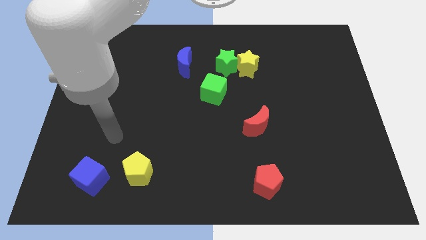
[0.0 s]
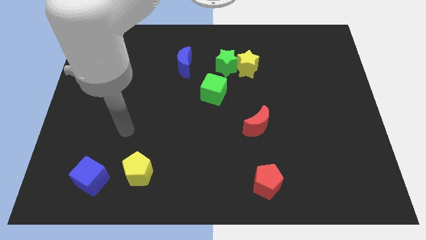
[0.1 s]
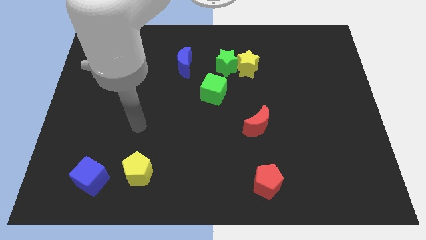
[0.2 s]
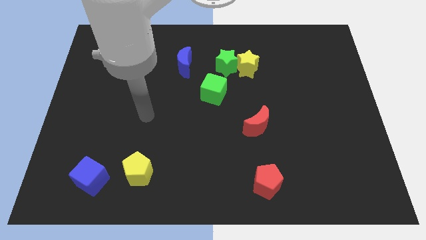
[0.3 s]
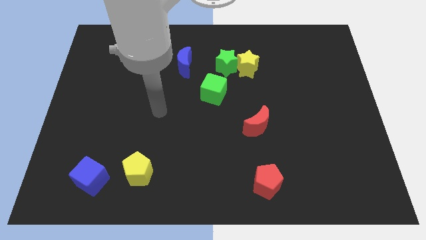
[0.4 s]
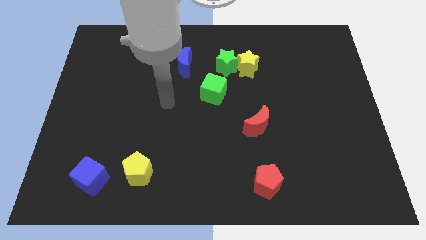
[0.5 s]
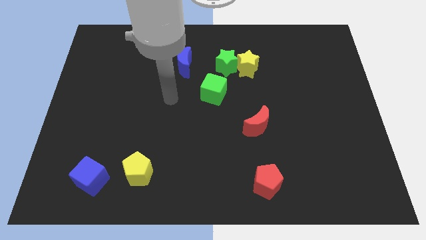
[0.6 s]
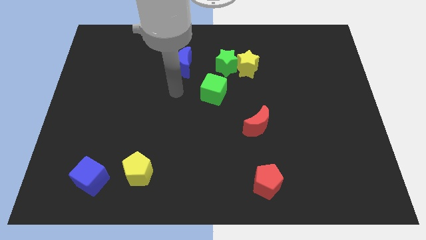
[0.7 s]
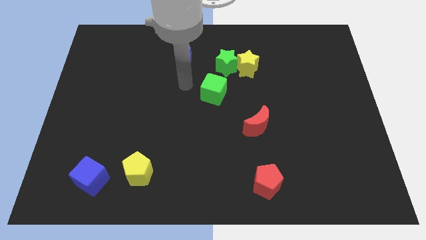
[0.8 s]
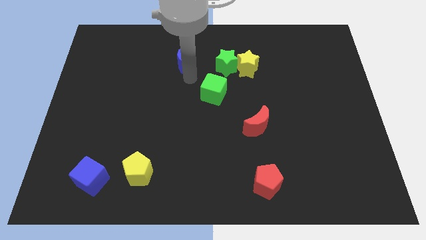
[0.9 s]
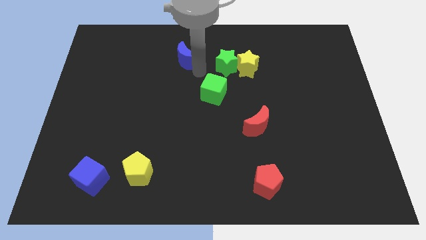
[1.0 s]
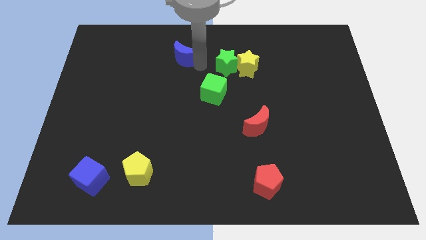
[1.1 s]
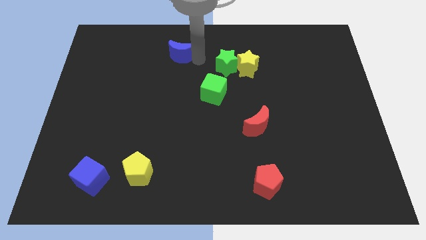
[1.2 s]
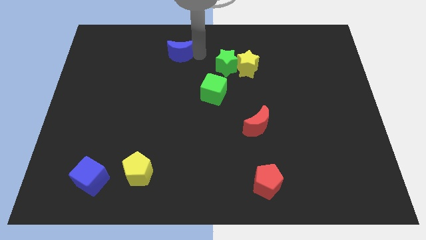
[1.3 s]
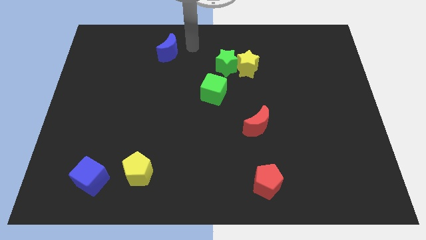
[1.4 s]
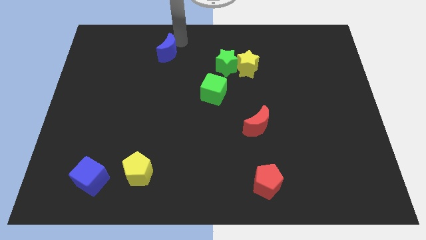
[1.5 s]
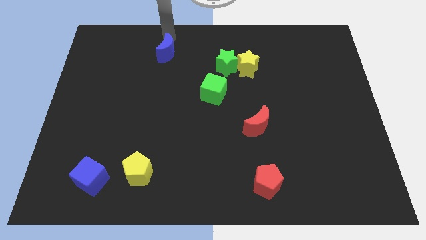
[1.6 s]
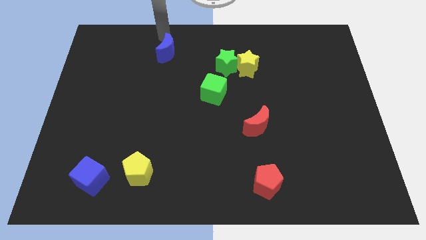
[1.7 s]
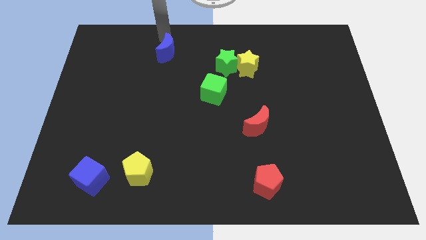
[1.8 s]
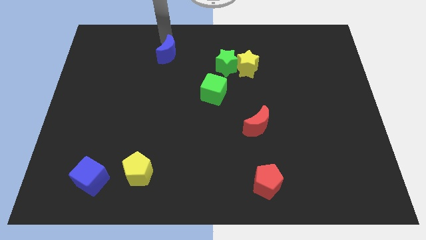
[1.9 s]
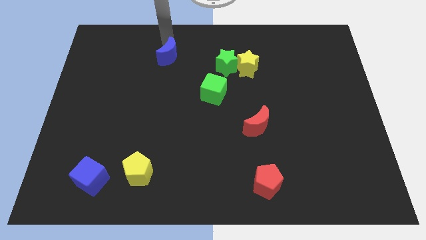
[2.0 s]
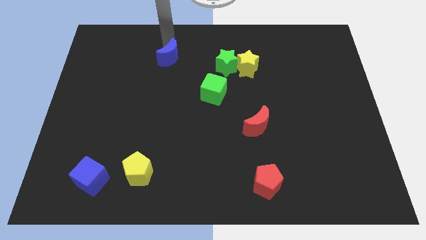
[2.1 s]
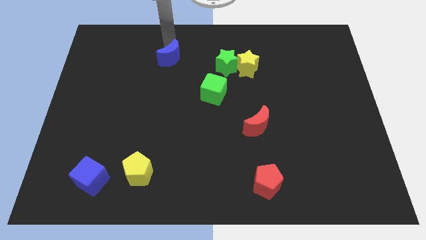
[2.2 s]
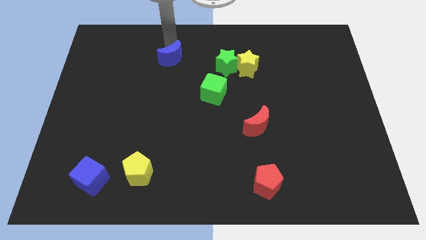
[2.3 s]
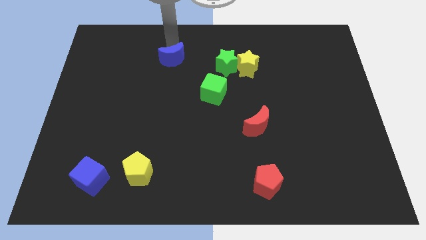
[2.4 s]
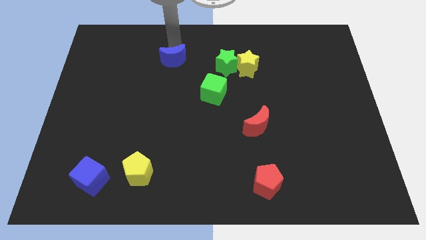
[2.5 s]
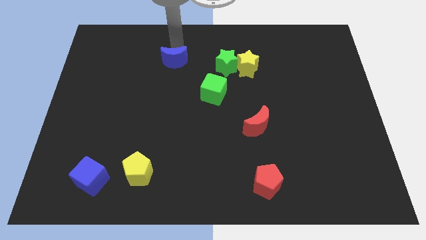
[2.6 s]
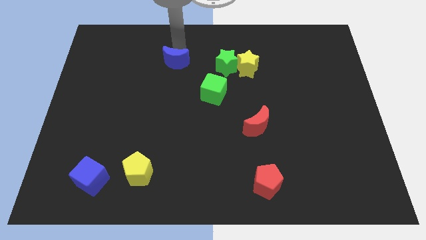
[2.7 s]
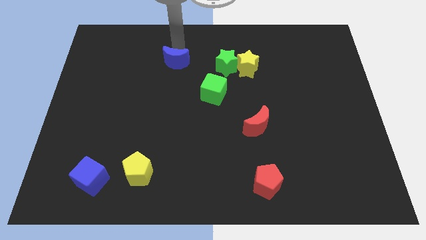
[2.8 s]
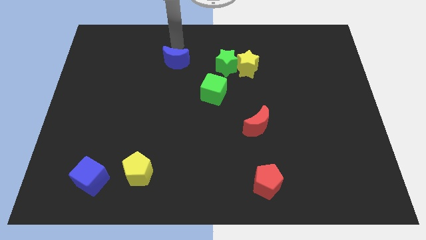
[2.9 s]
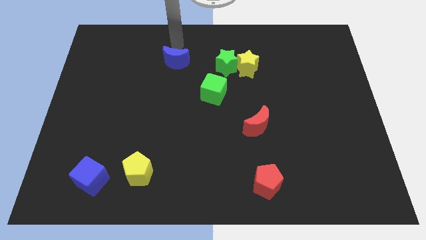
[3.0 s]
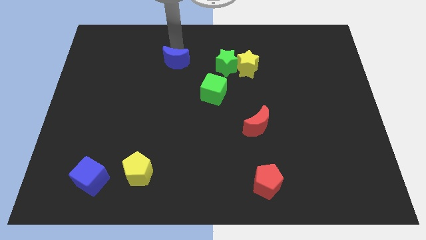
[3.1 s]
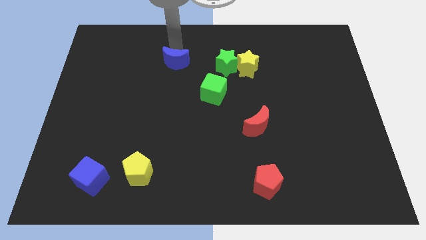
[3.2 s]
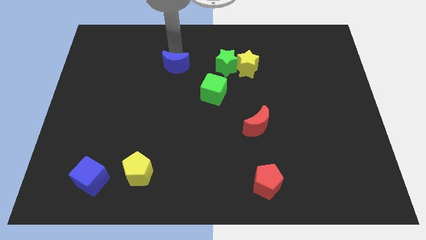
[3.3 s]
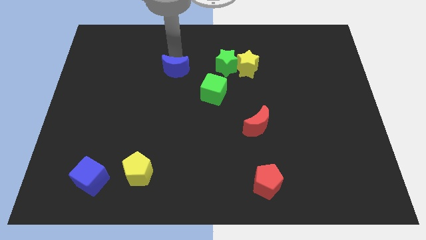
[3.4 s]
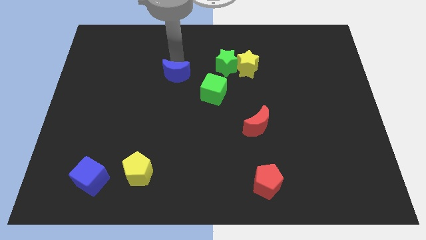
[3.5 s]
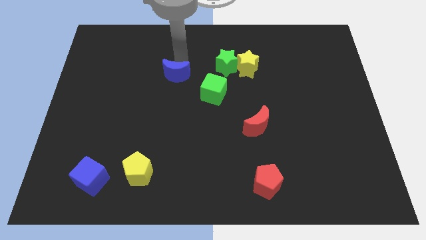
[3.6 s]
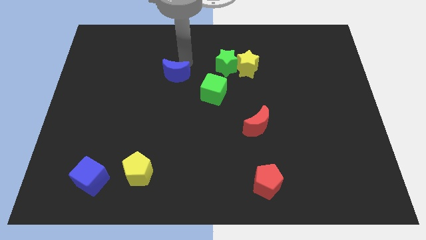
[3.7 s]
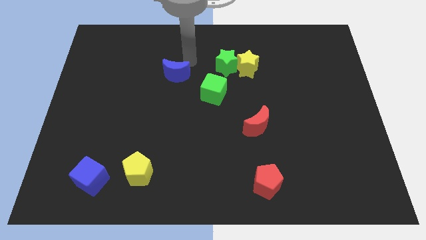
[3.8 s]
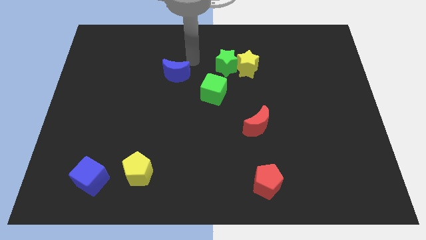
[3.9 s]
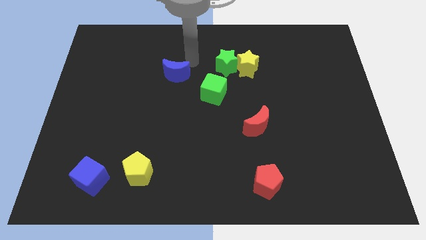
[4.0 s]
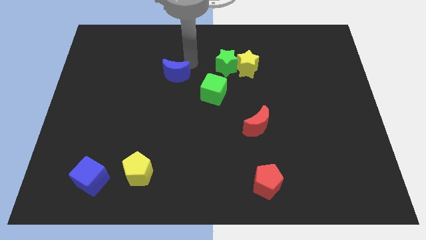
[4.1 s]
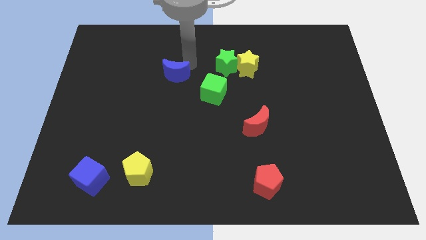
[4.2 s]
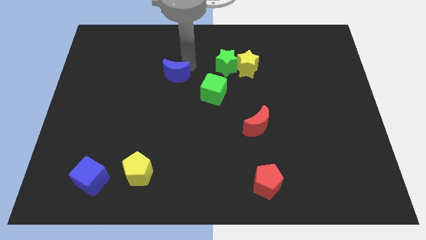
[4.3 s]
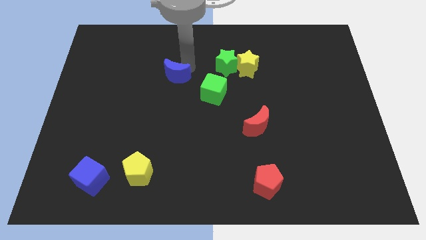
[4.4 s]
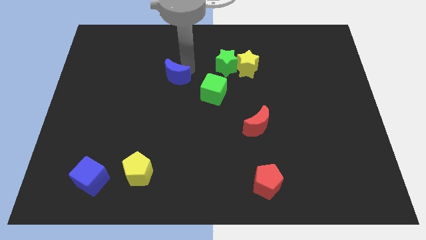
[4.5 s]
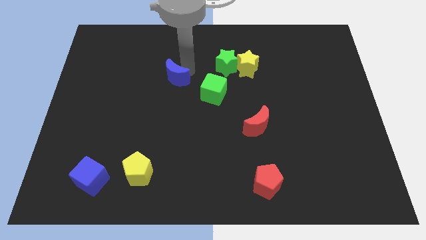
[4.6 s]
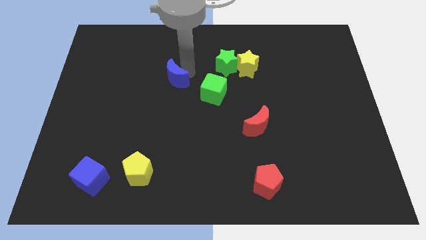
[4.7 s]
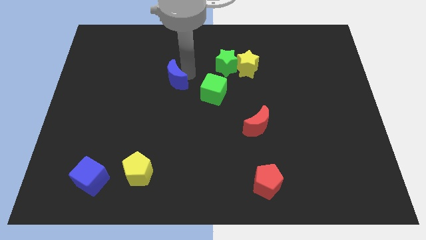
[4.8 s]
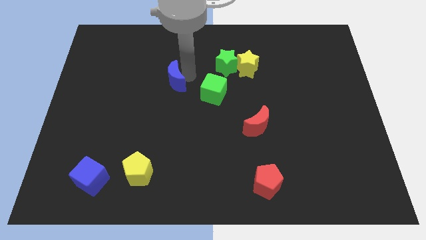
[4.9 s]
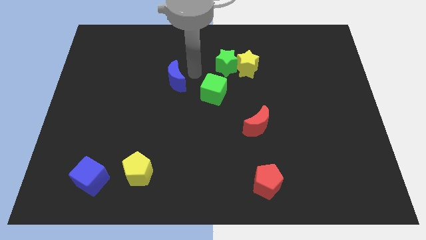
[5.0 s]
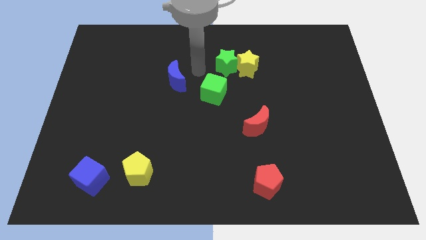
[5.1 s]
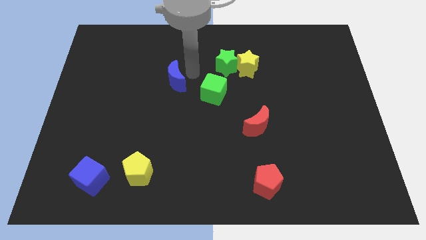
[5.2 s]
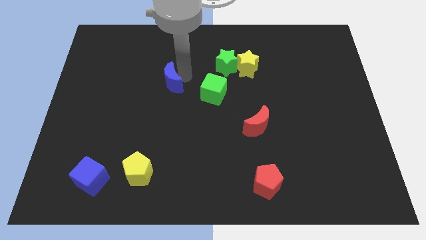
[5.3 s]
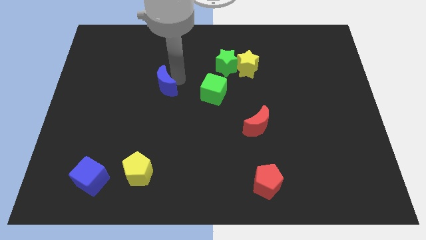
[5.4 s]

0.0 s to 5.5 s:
slide the blue moon a bit downwards and to the left

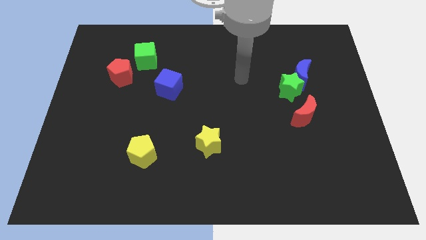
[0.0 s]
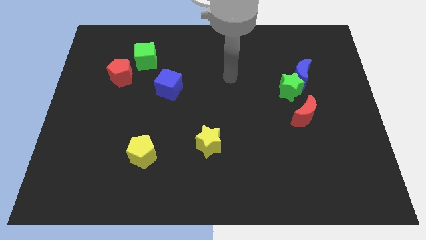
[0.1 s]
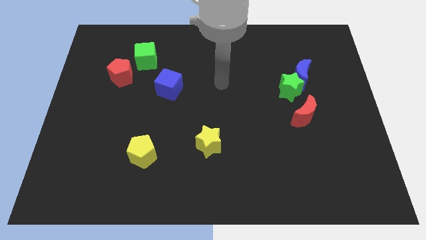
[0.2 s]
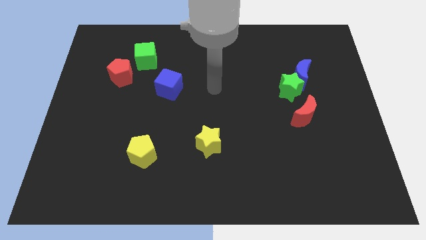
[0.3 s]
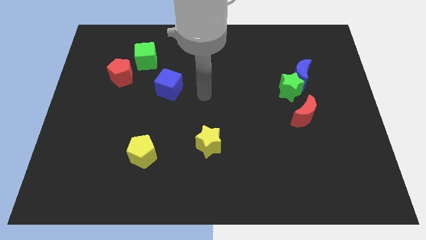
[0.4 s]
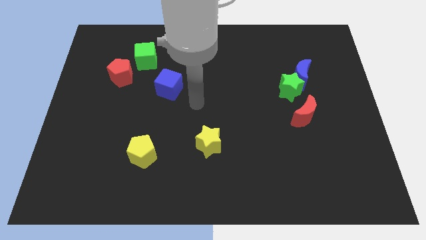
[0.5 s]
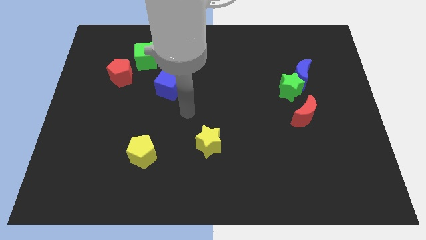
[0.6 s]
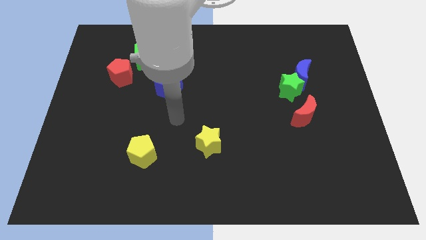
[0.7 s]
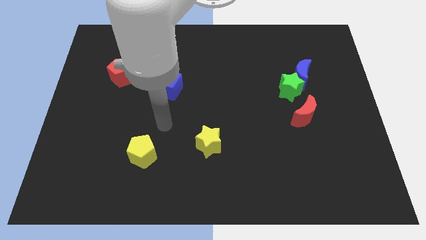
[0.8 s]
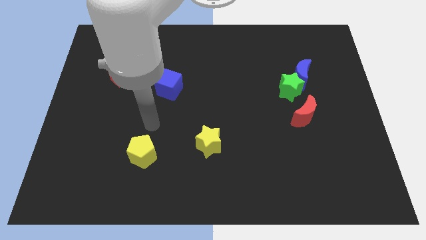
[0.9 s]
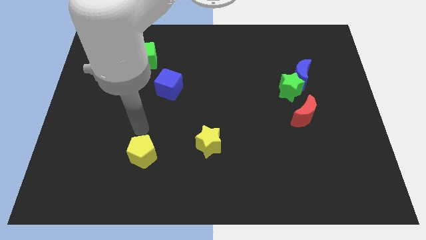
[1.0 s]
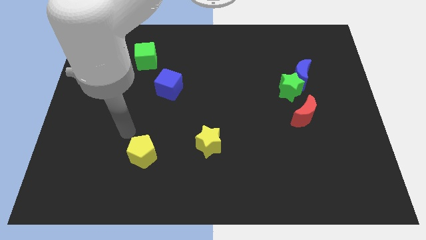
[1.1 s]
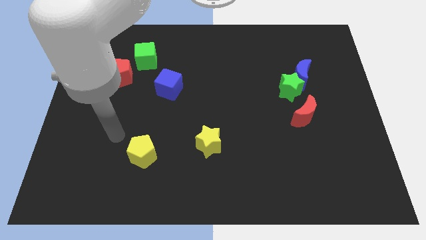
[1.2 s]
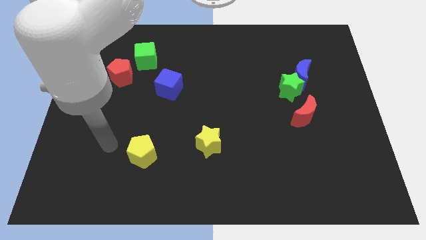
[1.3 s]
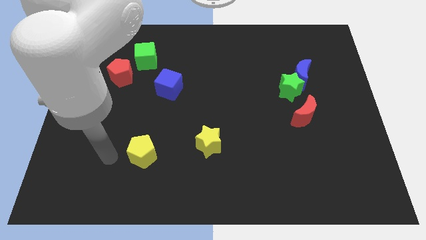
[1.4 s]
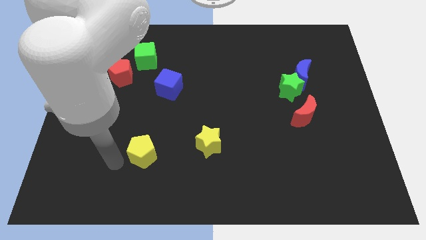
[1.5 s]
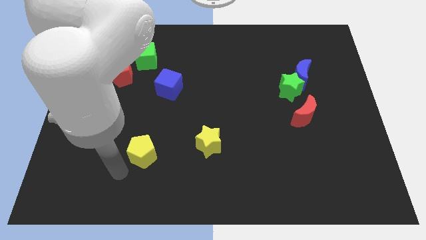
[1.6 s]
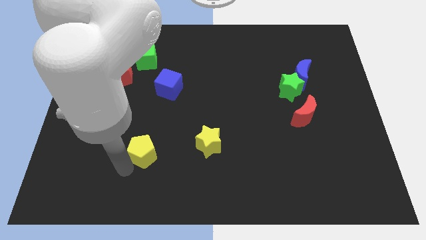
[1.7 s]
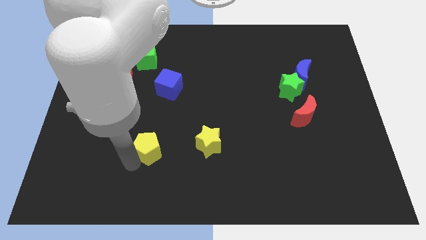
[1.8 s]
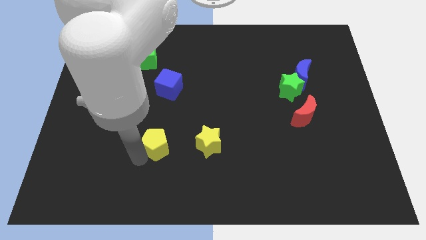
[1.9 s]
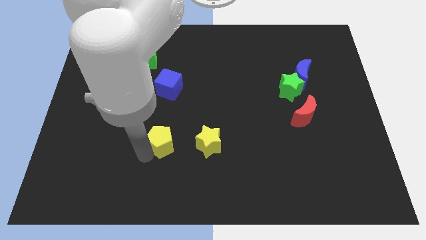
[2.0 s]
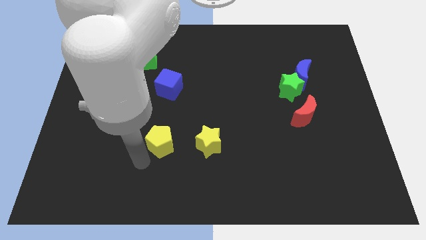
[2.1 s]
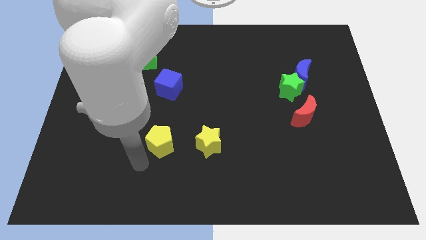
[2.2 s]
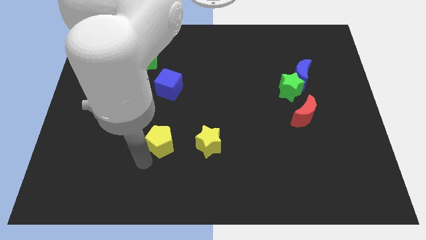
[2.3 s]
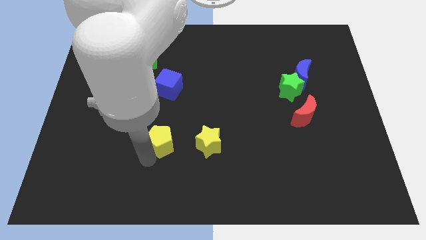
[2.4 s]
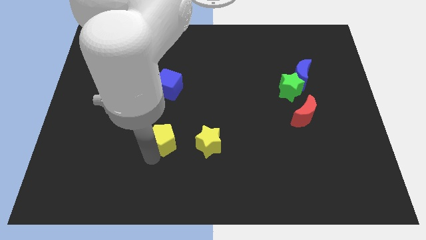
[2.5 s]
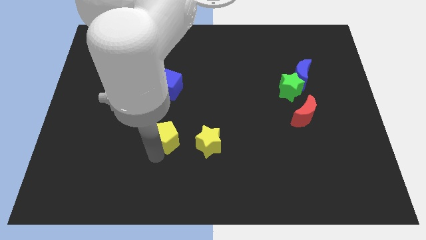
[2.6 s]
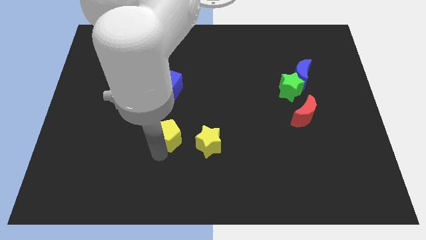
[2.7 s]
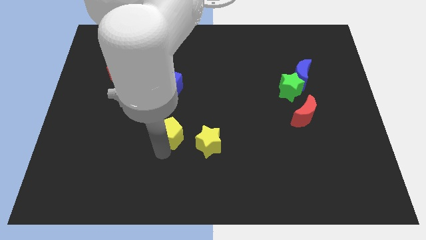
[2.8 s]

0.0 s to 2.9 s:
slightly push the yellow pentagon upwards and to the right diagonally
